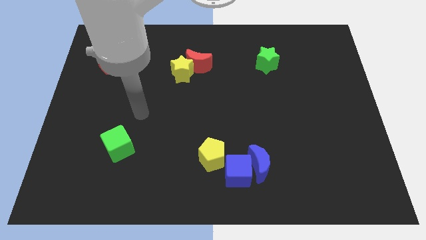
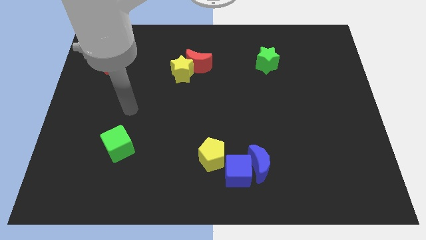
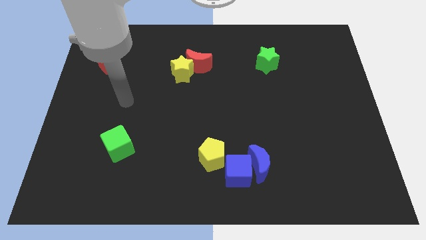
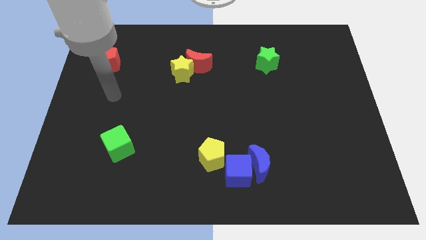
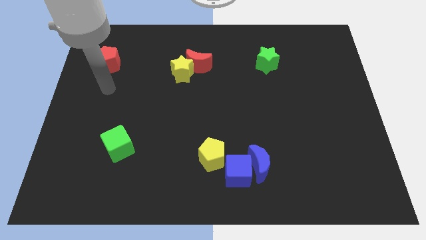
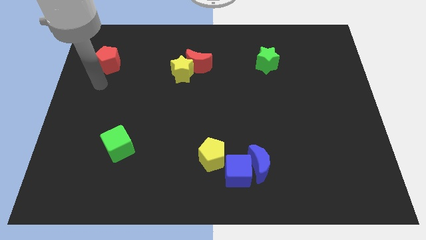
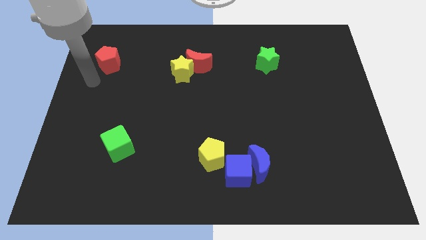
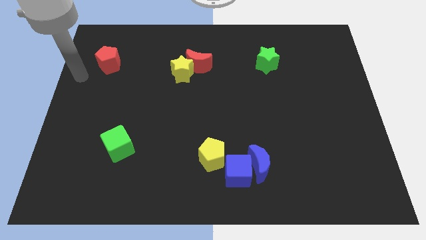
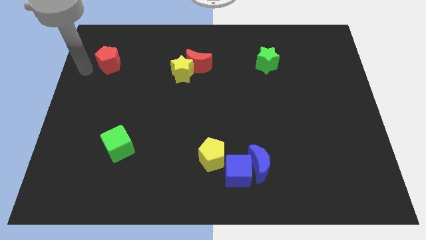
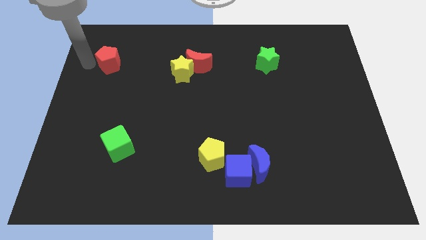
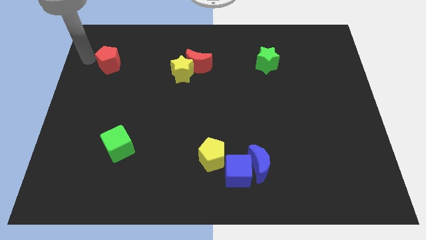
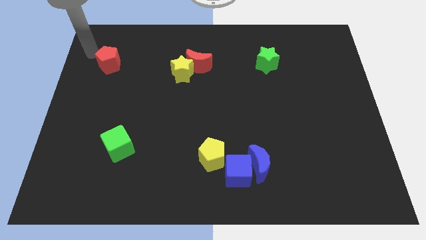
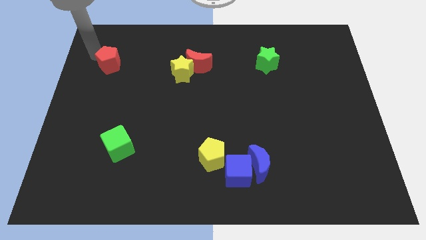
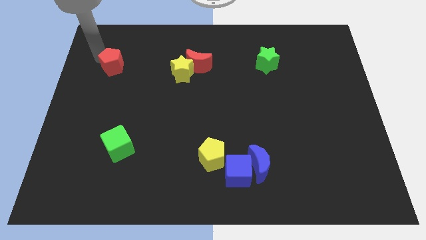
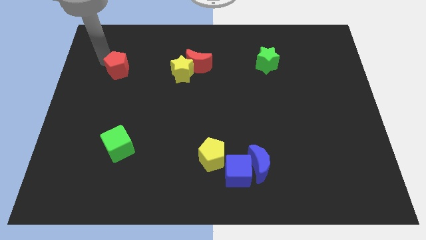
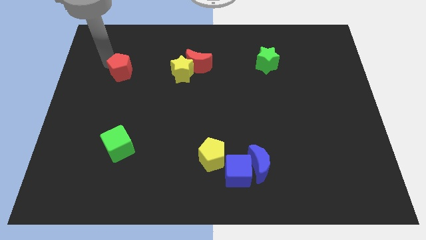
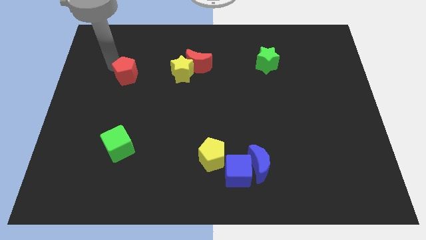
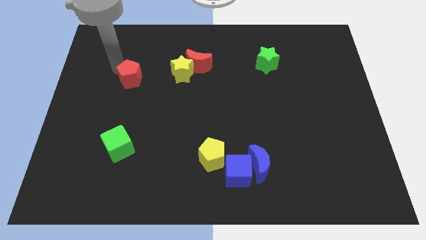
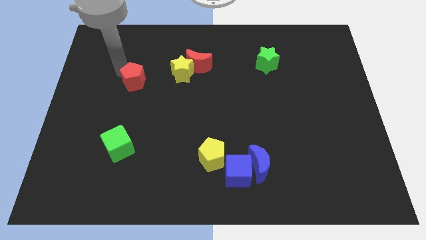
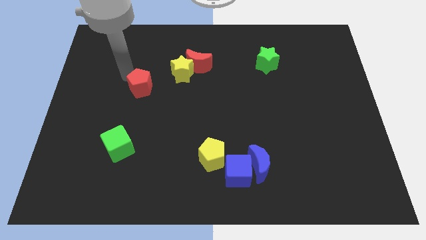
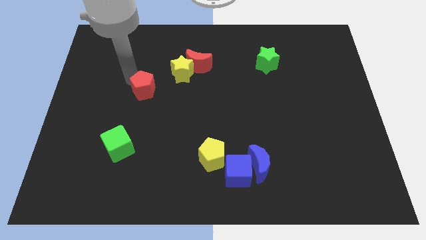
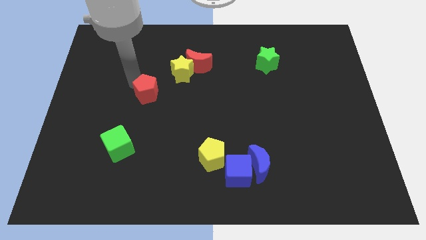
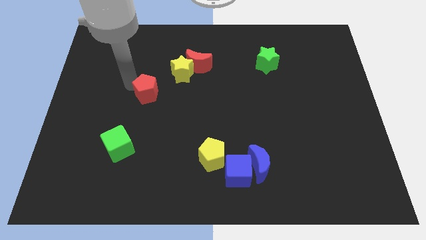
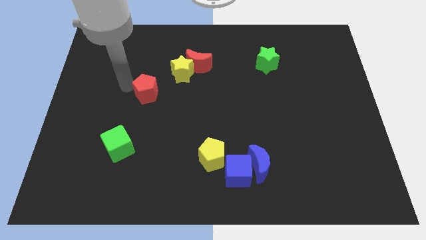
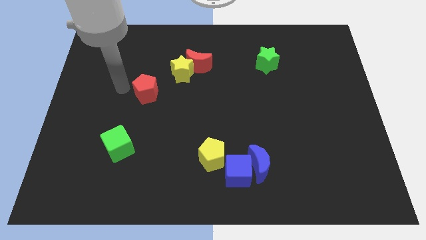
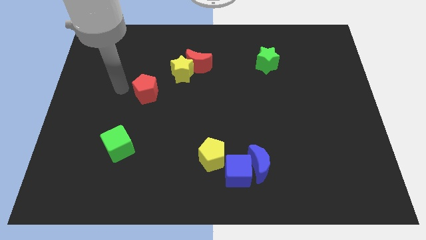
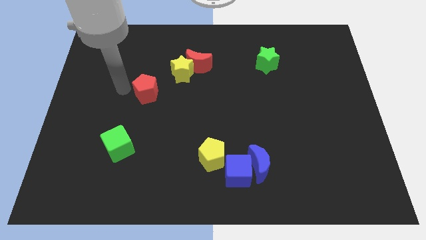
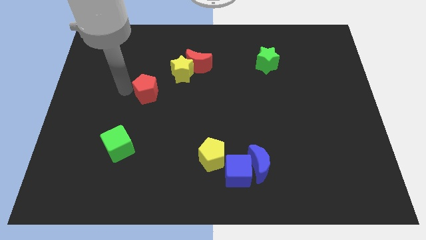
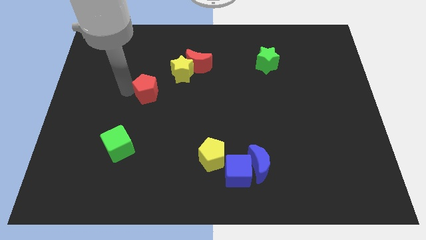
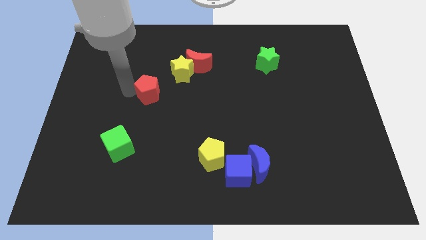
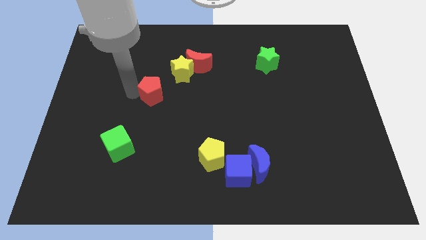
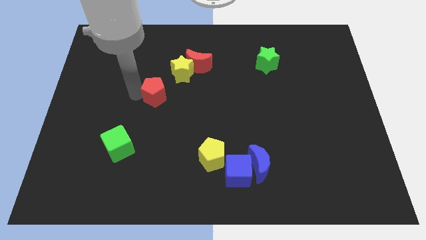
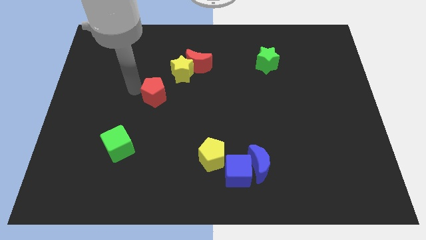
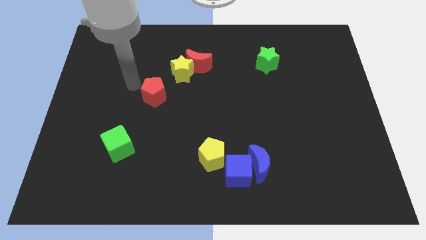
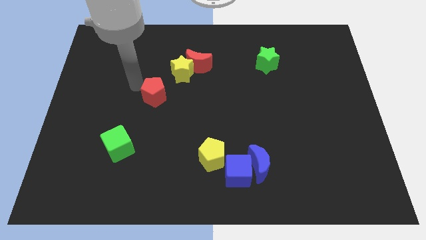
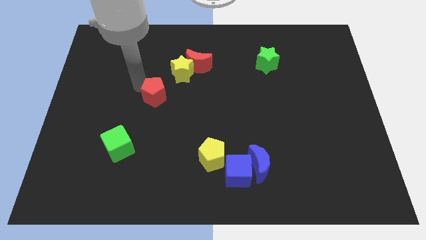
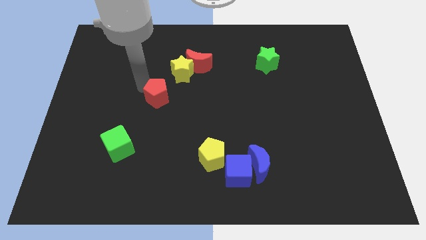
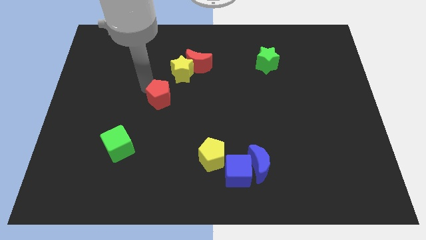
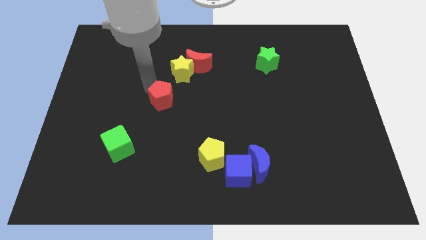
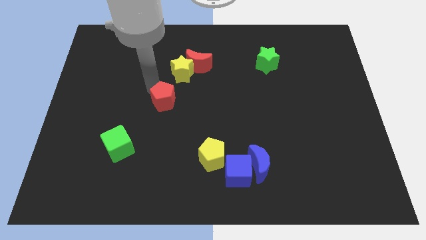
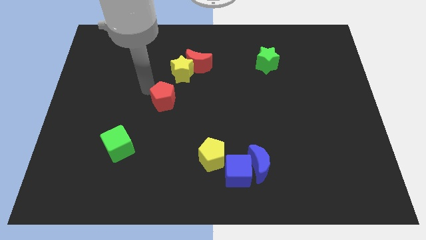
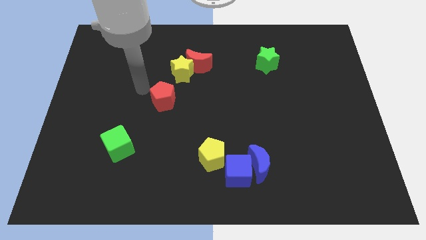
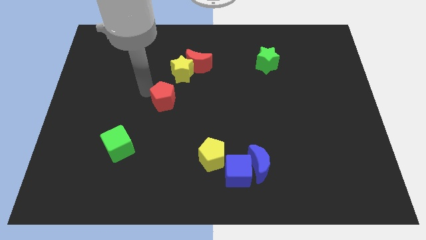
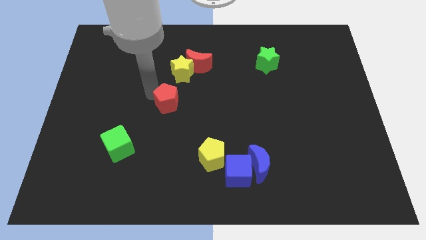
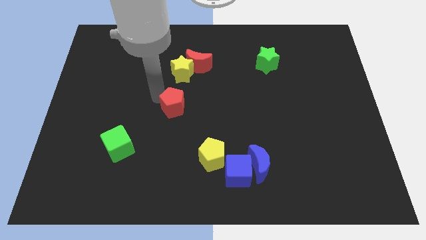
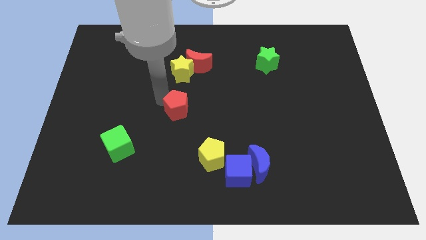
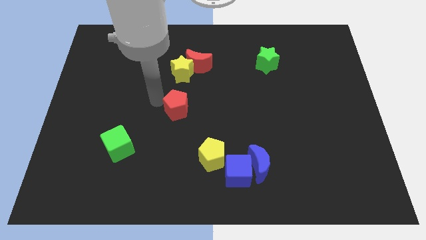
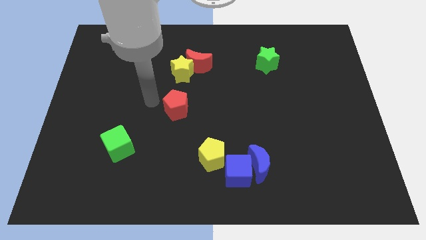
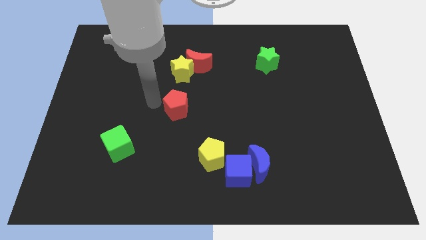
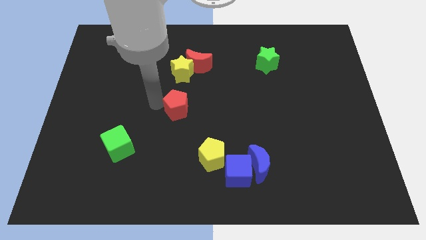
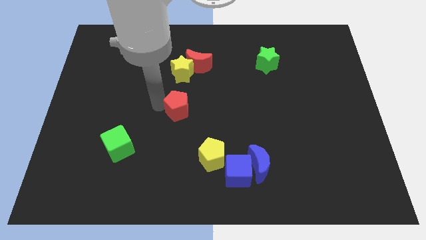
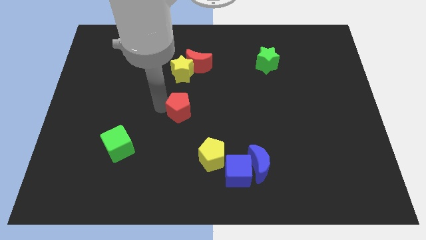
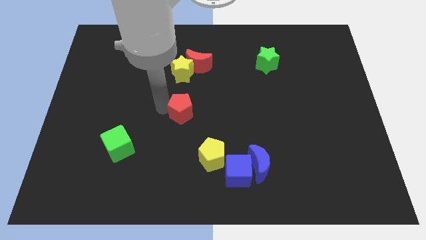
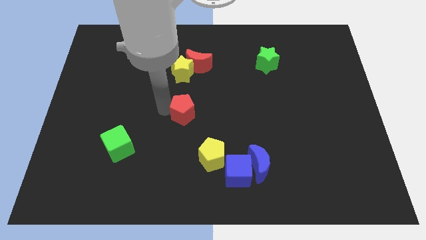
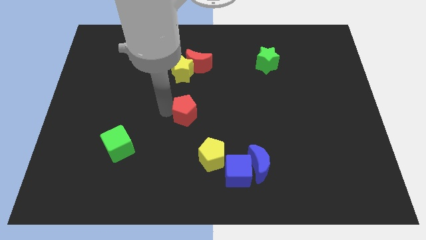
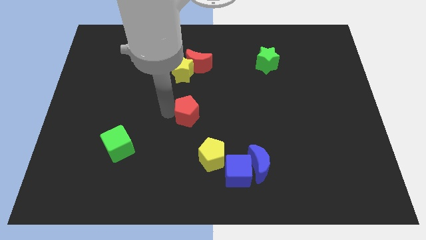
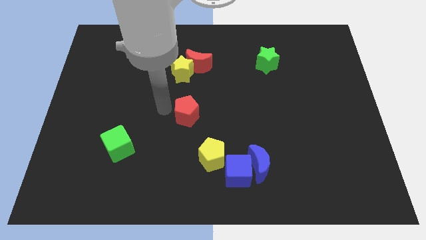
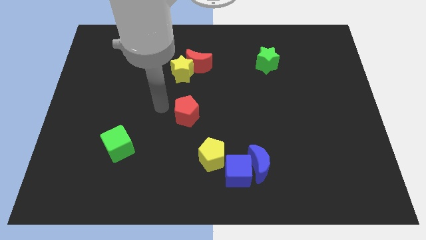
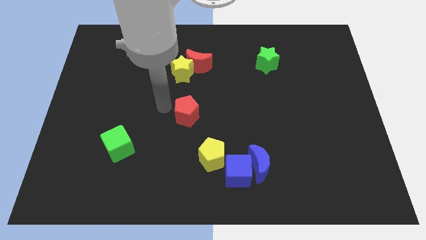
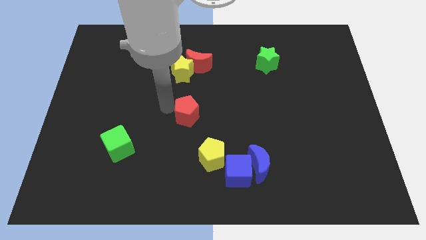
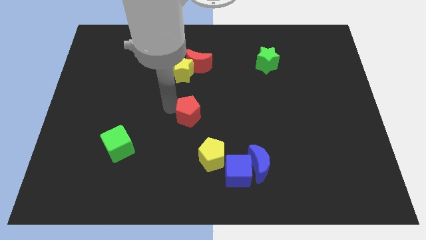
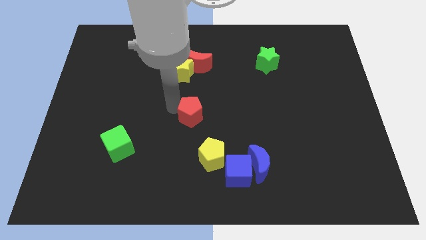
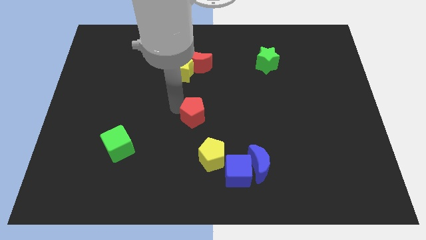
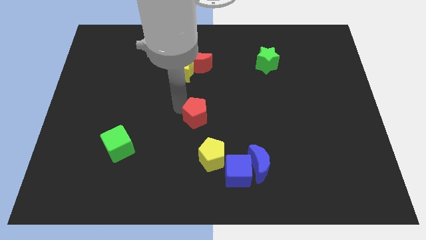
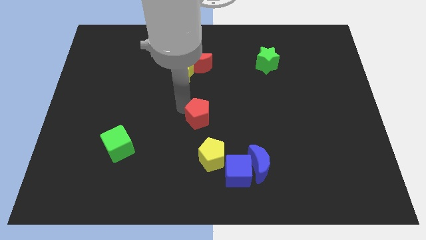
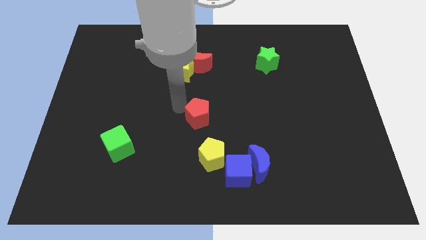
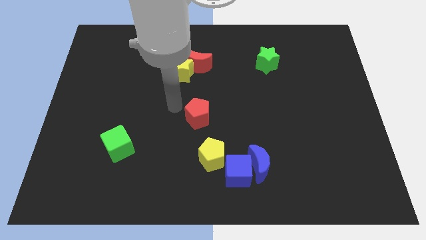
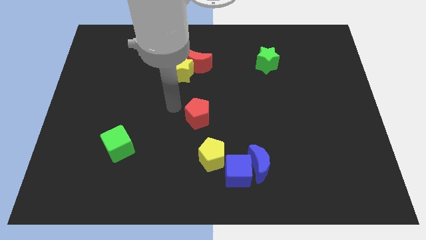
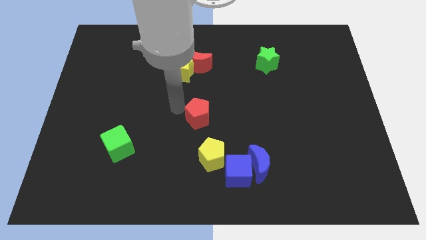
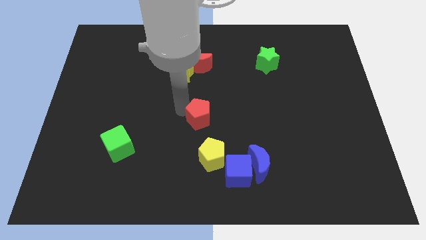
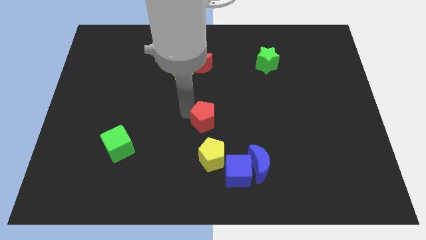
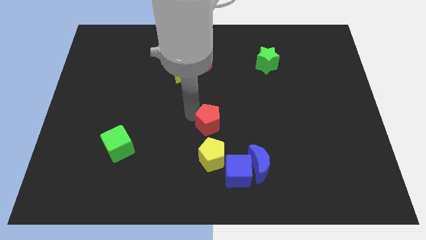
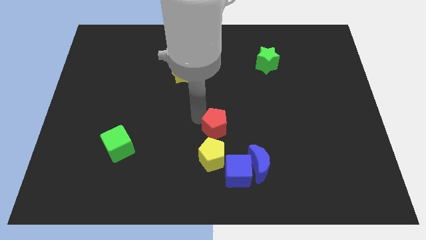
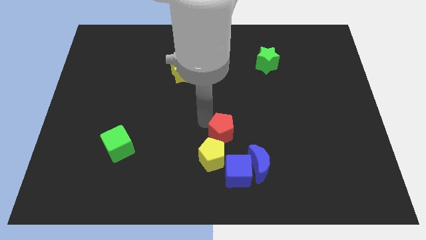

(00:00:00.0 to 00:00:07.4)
slide the red pentagon to the top right side of the yellow pentagon

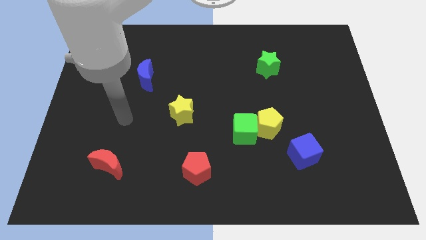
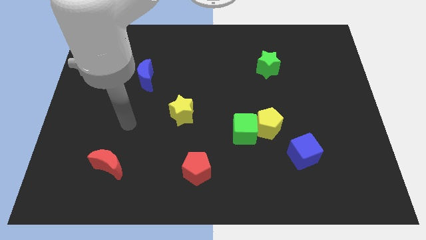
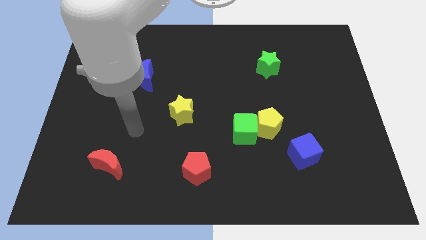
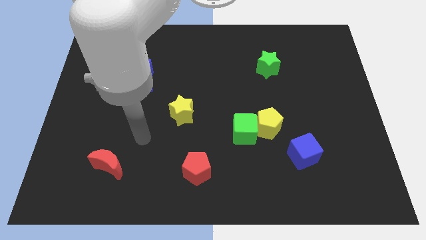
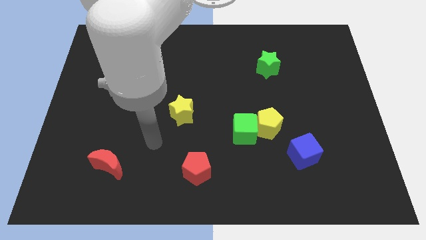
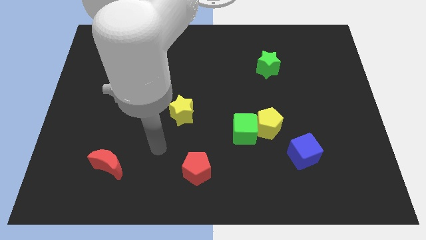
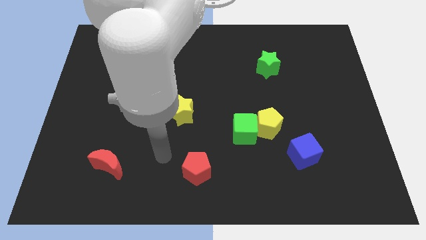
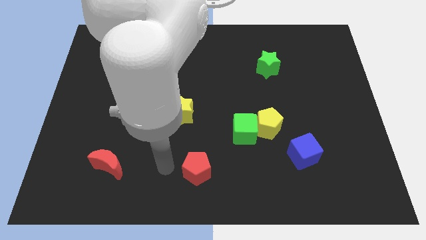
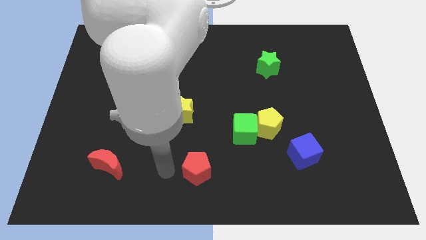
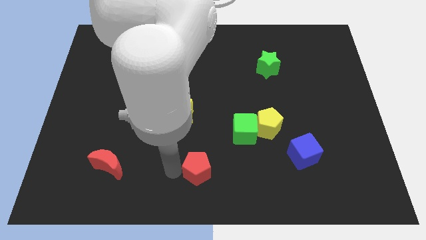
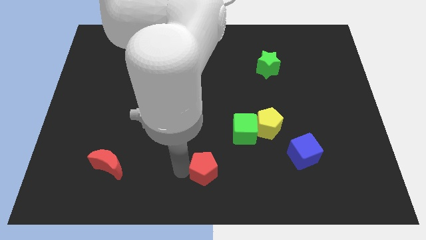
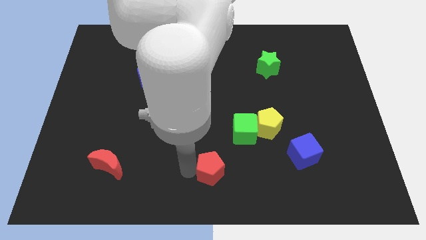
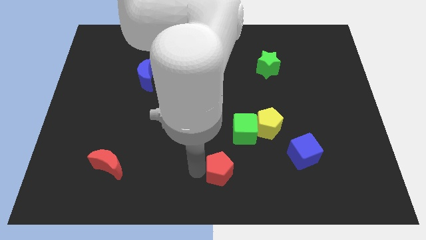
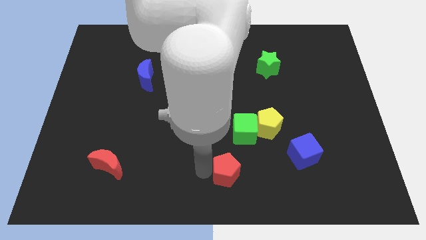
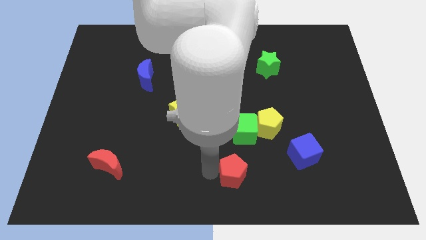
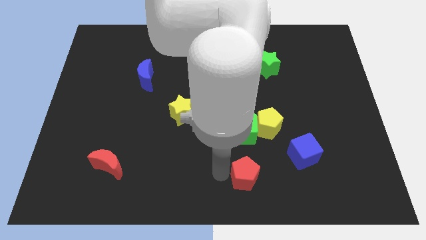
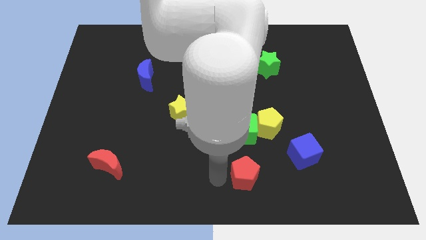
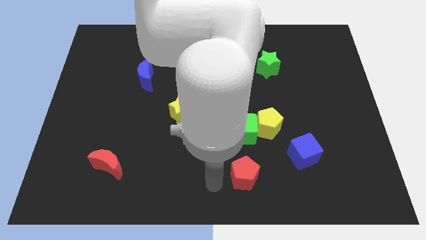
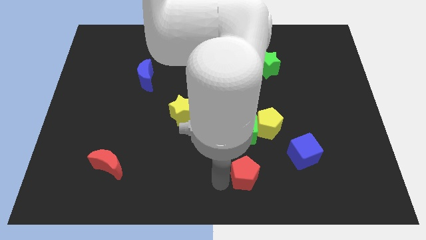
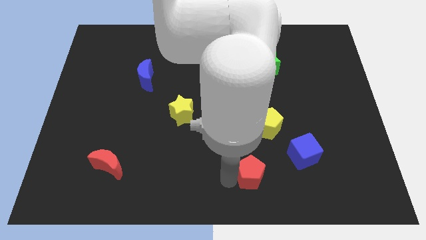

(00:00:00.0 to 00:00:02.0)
push the red pentagon below the yellow pentagon
